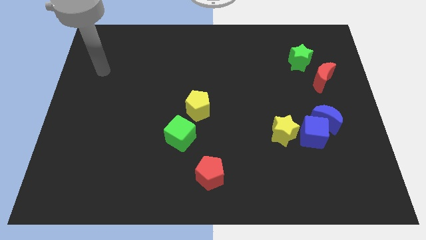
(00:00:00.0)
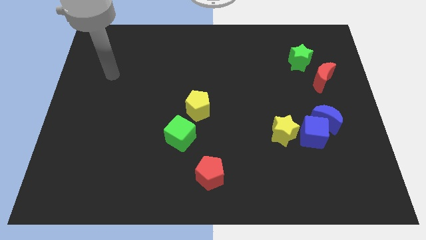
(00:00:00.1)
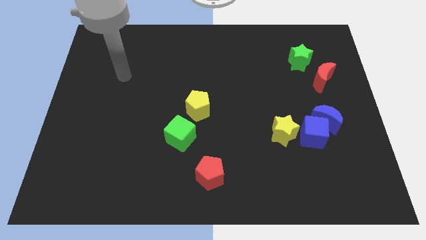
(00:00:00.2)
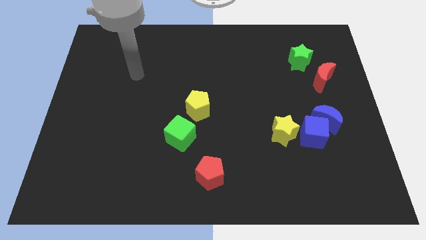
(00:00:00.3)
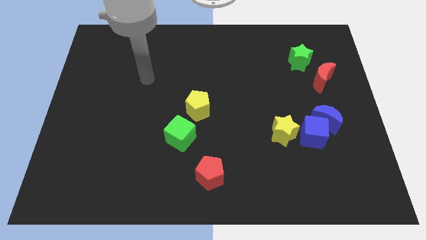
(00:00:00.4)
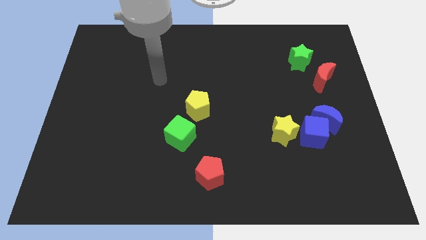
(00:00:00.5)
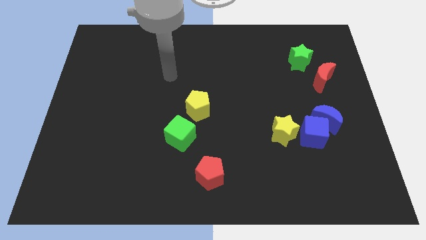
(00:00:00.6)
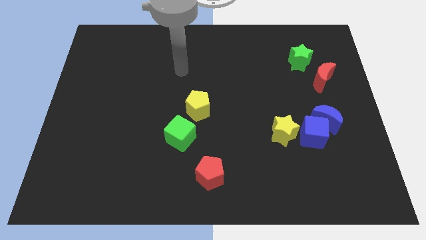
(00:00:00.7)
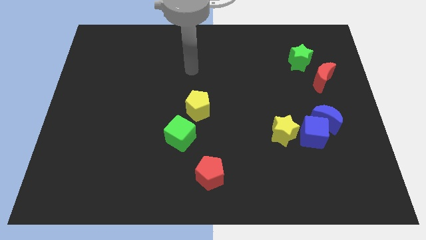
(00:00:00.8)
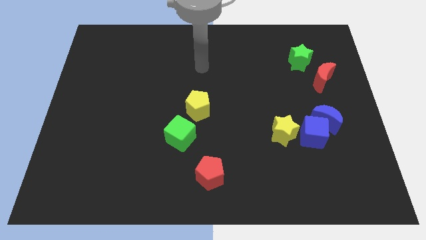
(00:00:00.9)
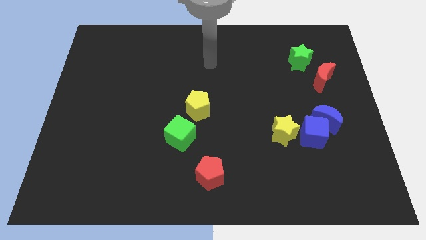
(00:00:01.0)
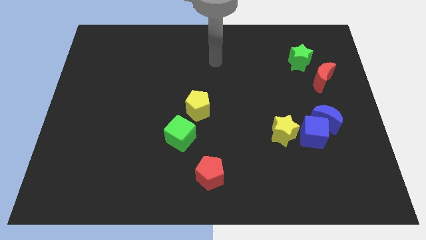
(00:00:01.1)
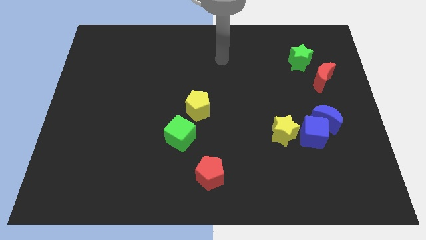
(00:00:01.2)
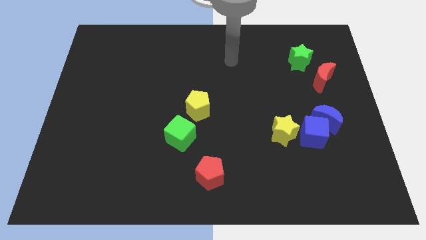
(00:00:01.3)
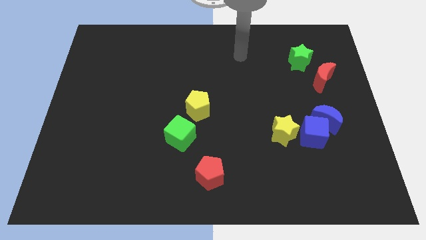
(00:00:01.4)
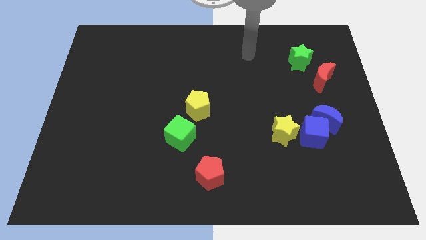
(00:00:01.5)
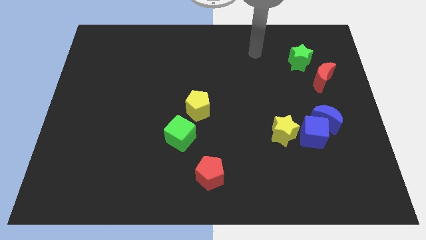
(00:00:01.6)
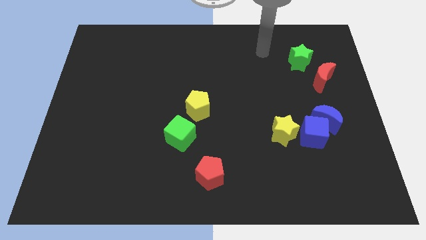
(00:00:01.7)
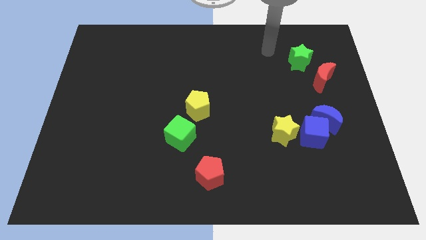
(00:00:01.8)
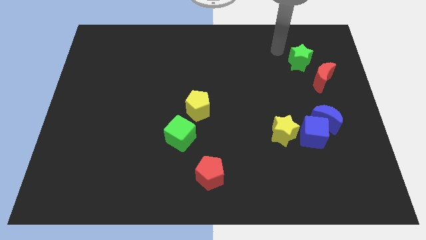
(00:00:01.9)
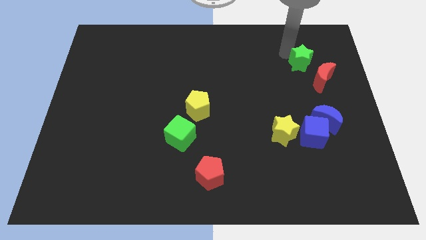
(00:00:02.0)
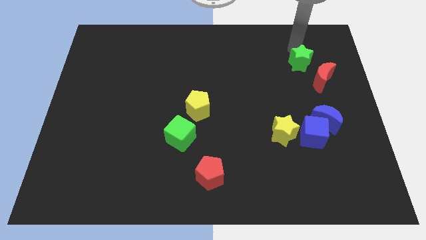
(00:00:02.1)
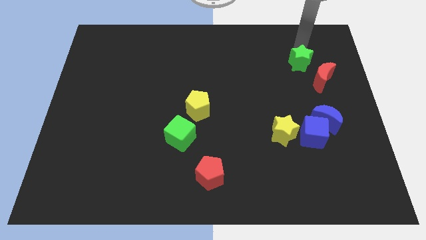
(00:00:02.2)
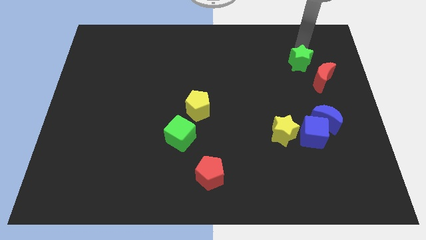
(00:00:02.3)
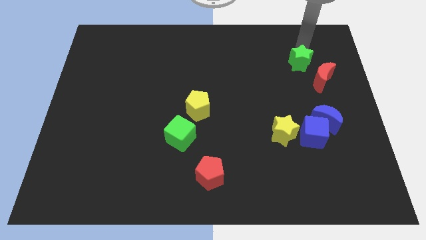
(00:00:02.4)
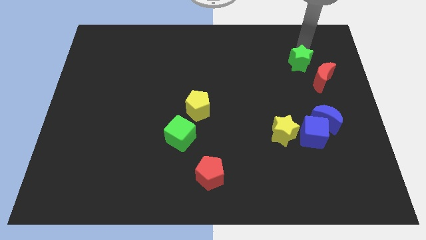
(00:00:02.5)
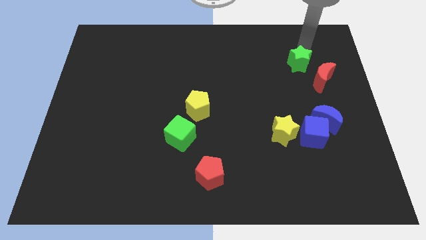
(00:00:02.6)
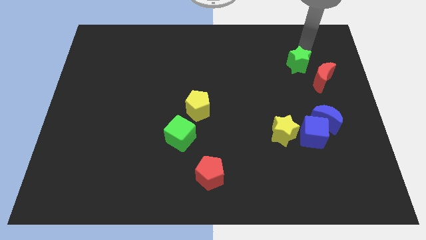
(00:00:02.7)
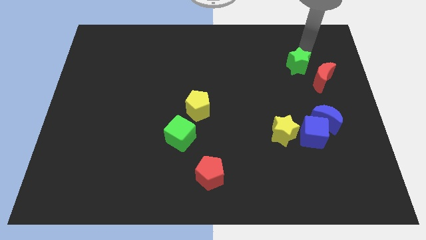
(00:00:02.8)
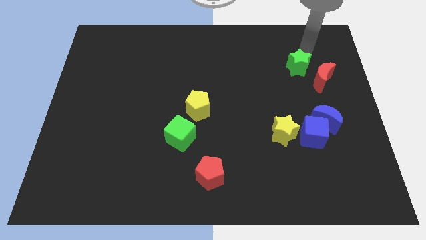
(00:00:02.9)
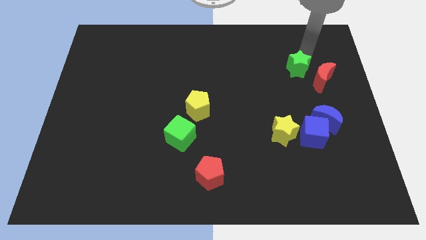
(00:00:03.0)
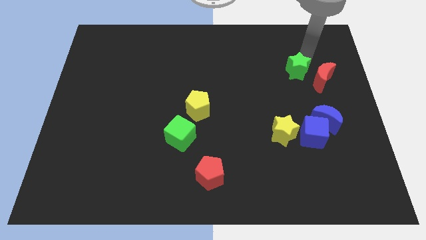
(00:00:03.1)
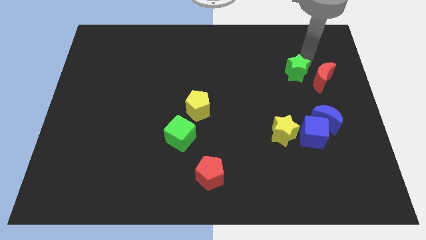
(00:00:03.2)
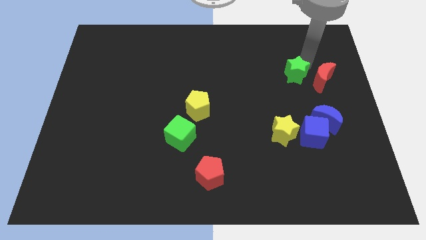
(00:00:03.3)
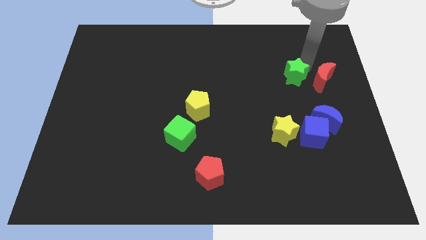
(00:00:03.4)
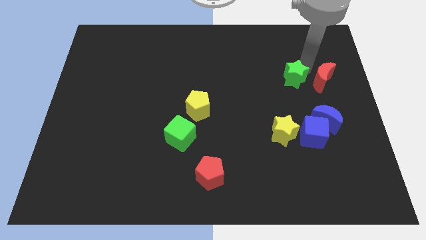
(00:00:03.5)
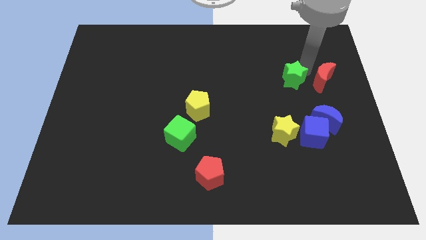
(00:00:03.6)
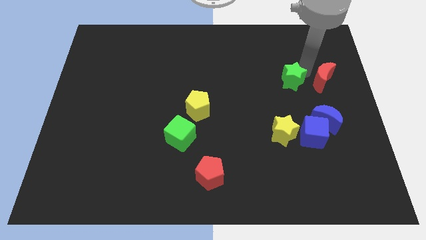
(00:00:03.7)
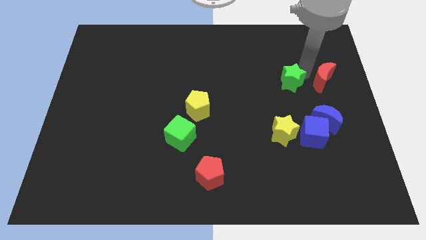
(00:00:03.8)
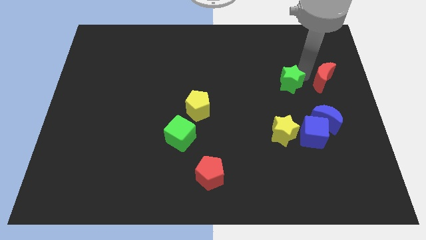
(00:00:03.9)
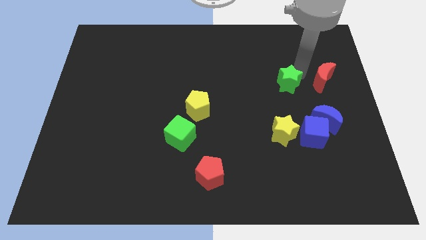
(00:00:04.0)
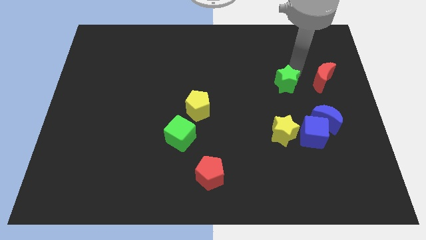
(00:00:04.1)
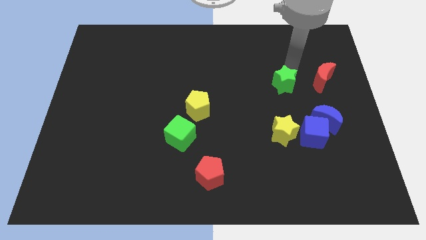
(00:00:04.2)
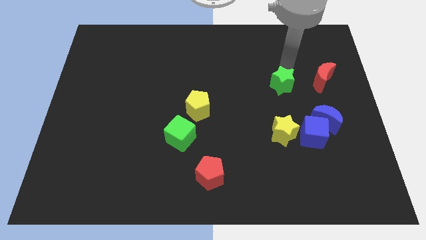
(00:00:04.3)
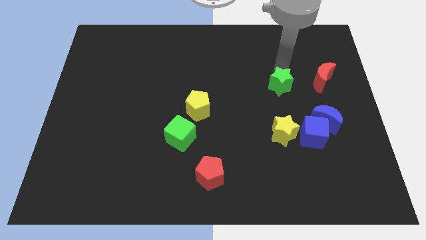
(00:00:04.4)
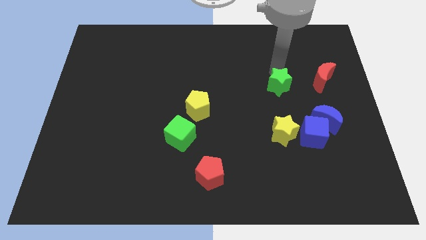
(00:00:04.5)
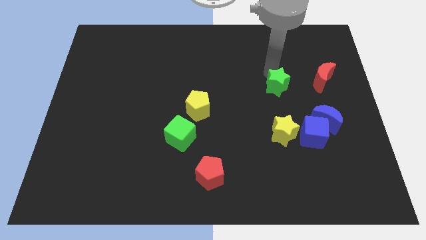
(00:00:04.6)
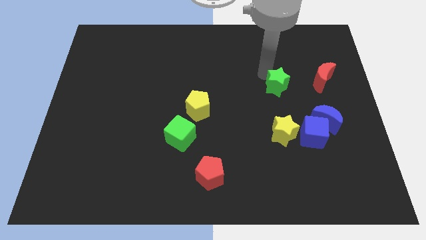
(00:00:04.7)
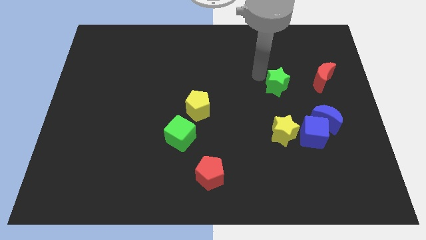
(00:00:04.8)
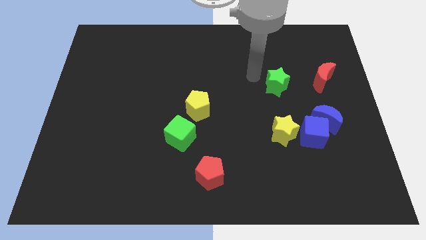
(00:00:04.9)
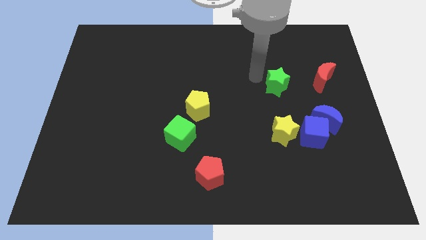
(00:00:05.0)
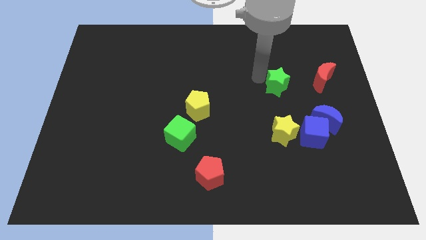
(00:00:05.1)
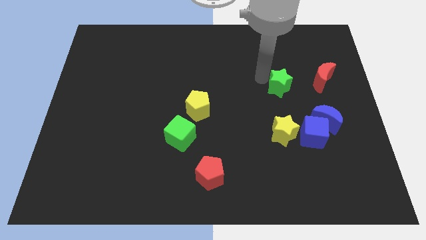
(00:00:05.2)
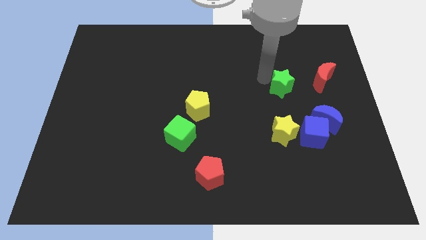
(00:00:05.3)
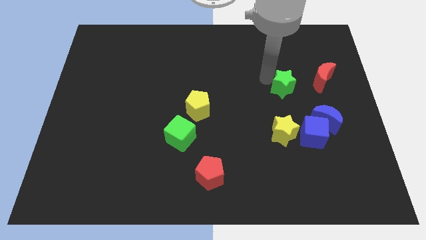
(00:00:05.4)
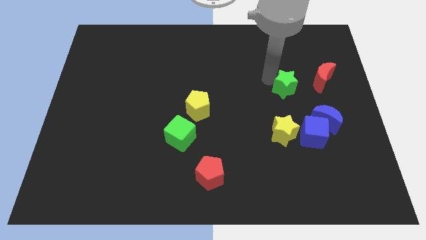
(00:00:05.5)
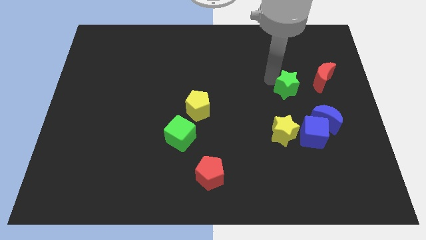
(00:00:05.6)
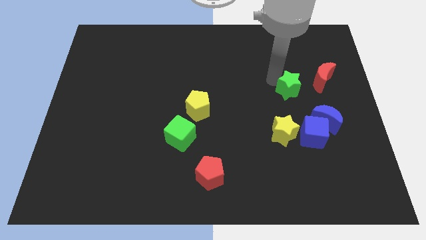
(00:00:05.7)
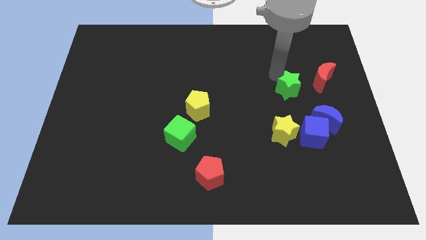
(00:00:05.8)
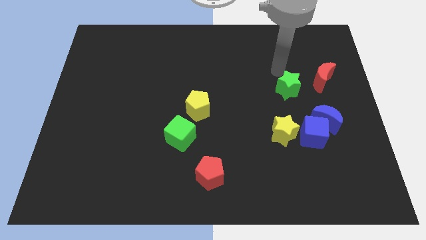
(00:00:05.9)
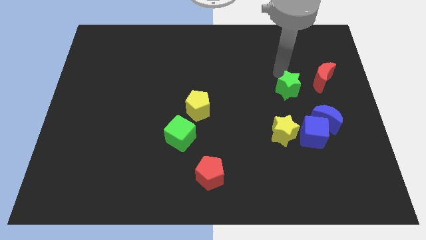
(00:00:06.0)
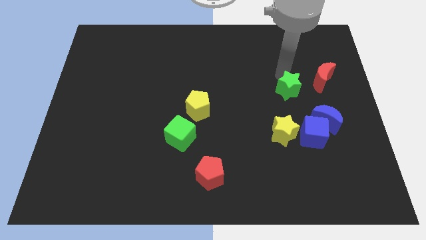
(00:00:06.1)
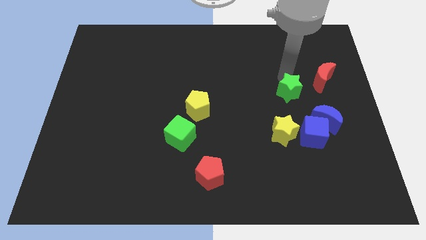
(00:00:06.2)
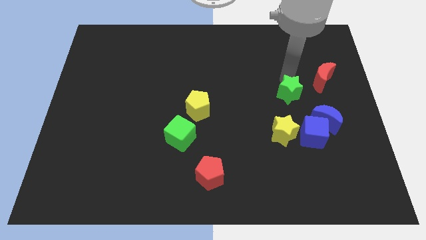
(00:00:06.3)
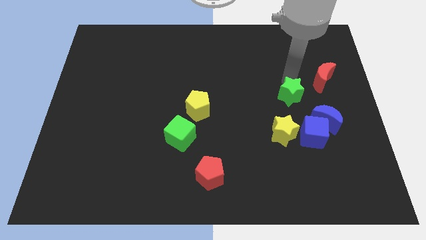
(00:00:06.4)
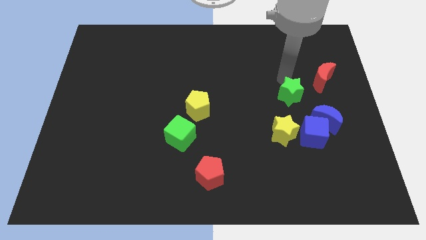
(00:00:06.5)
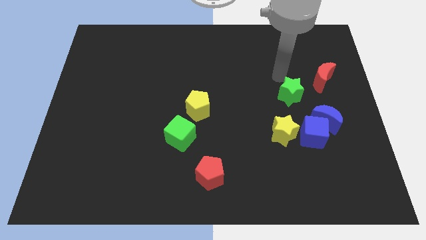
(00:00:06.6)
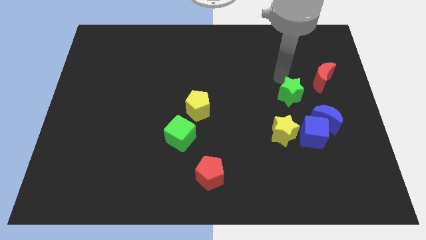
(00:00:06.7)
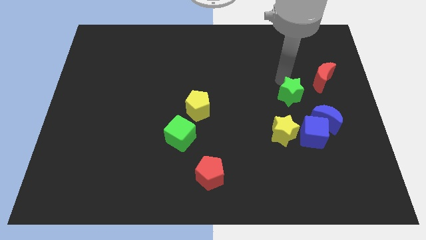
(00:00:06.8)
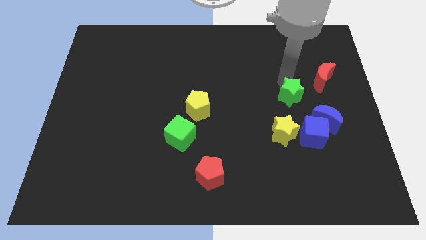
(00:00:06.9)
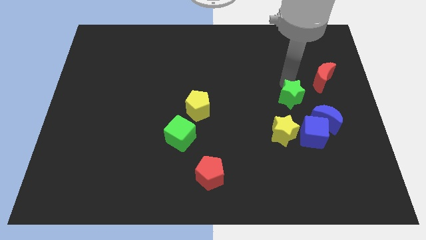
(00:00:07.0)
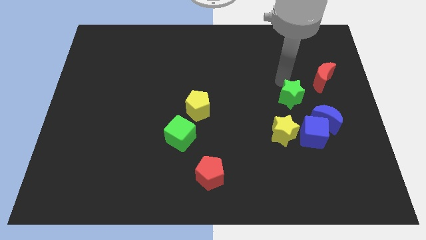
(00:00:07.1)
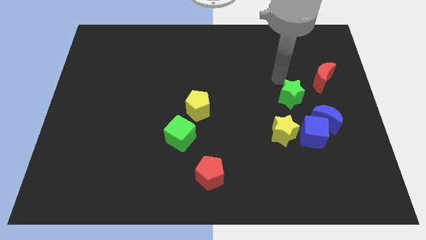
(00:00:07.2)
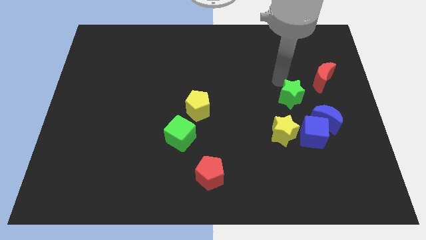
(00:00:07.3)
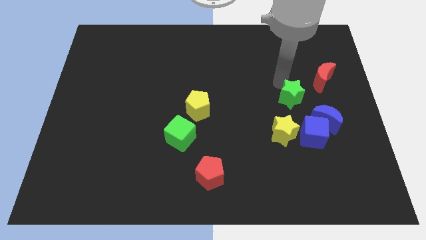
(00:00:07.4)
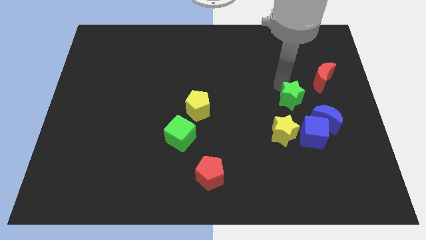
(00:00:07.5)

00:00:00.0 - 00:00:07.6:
slide the green star to the top right side of the yellow star
